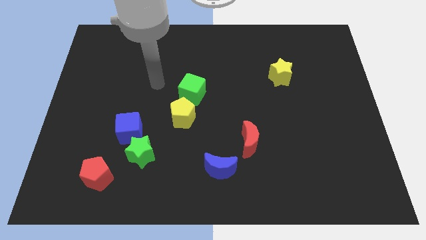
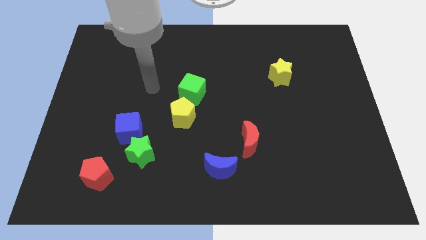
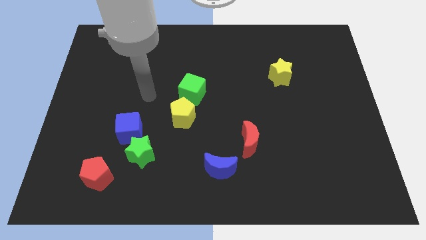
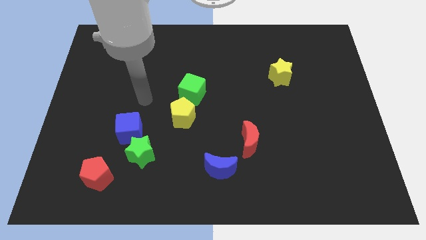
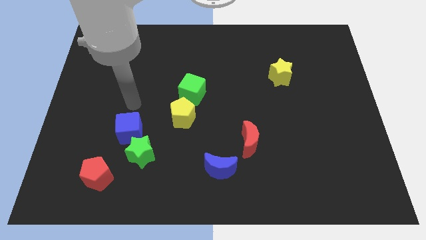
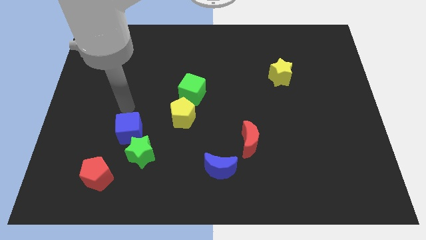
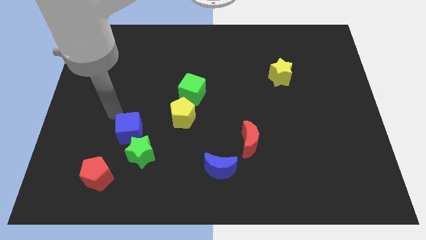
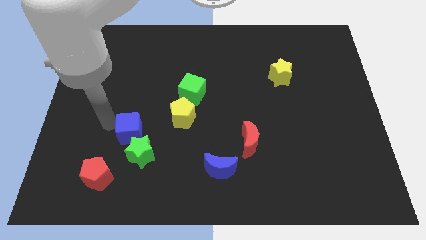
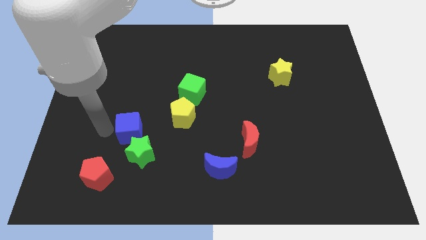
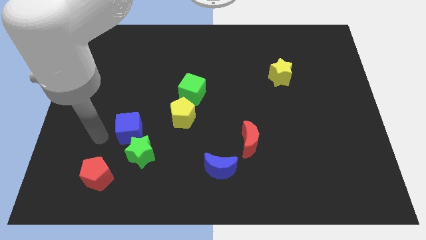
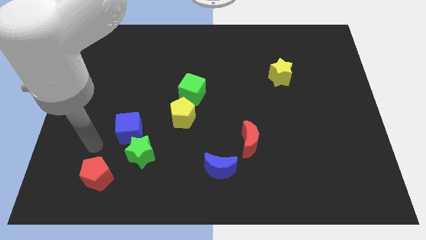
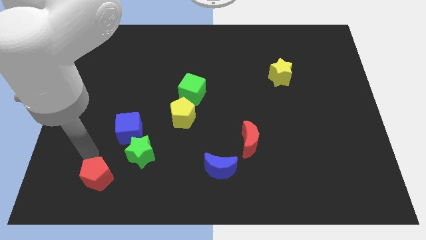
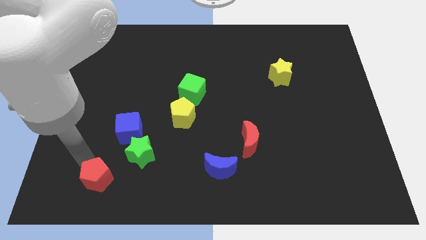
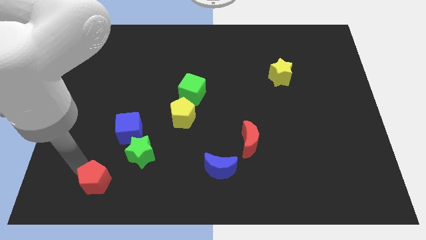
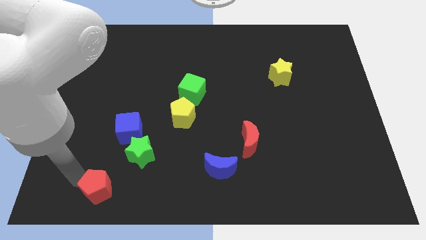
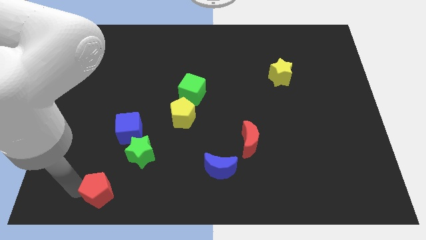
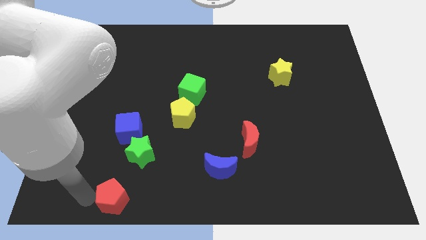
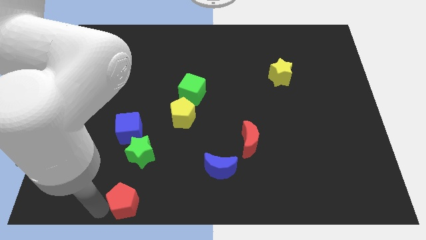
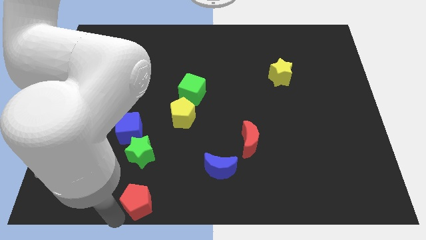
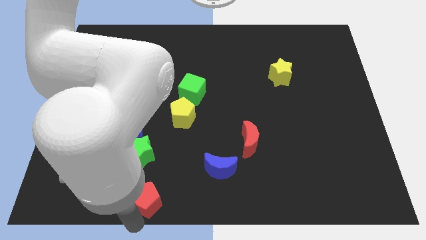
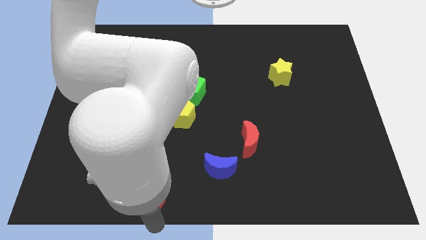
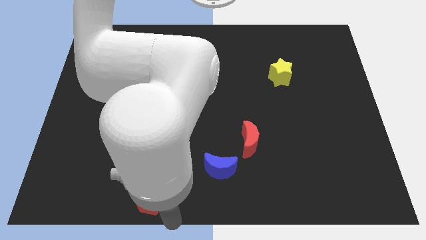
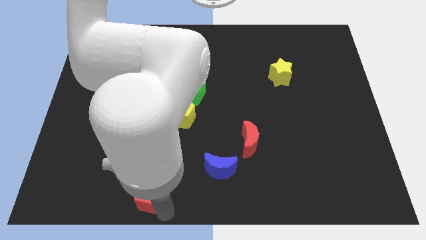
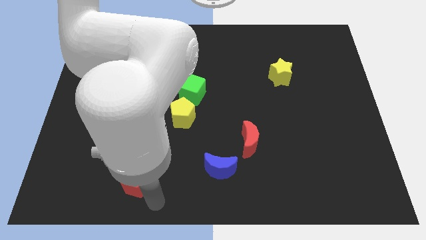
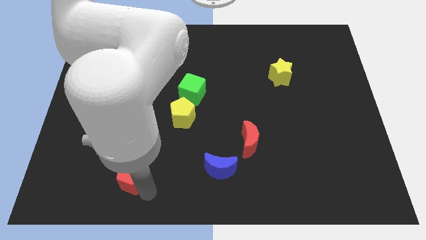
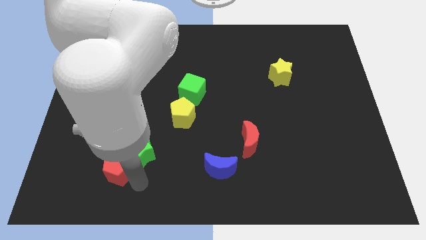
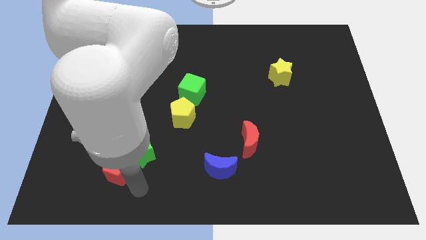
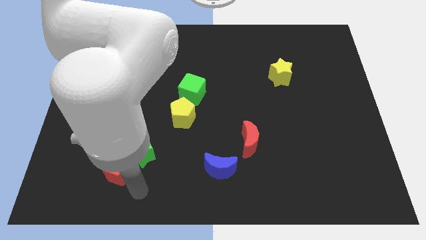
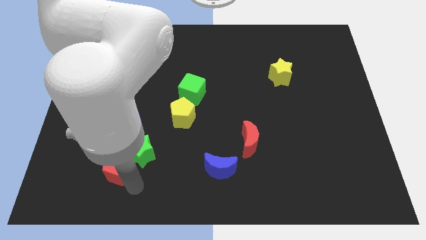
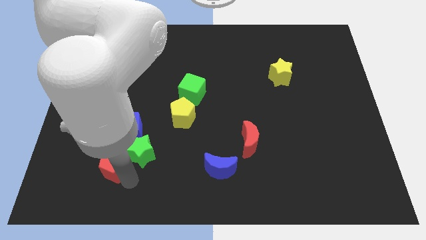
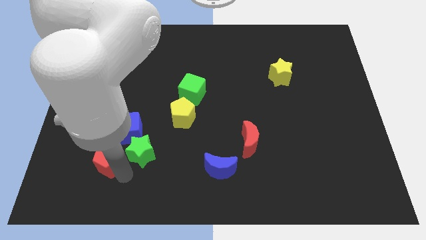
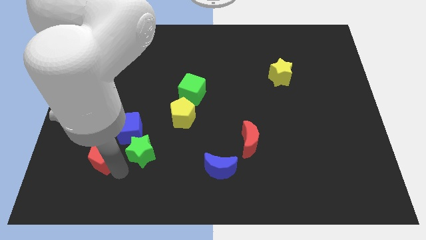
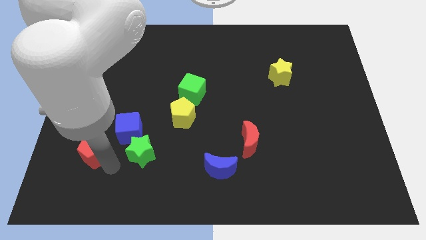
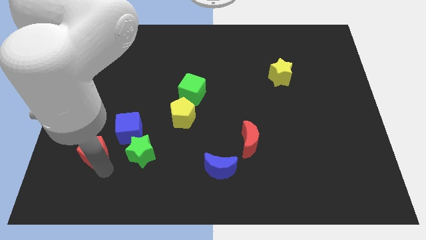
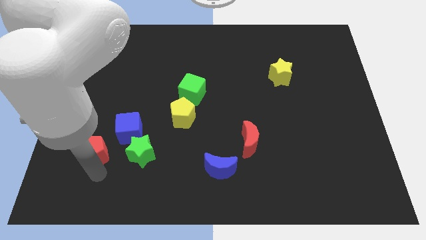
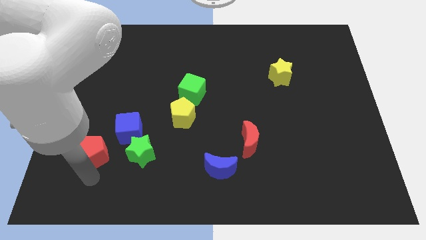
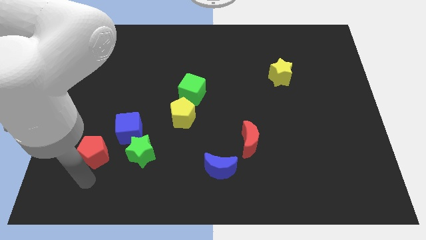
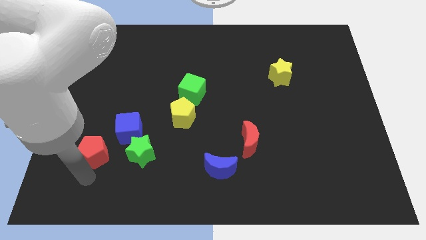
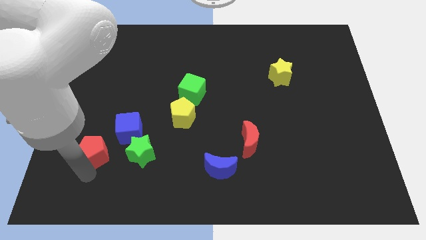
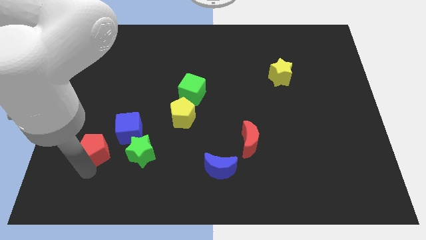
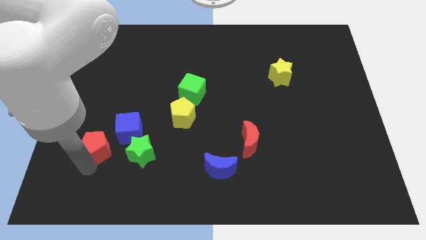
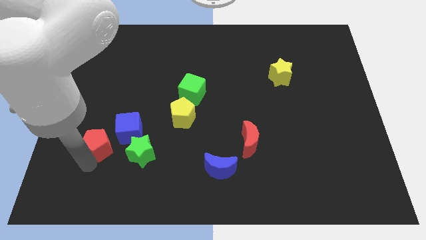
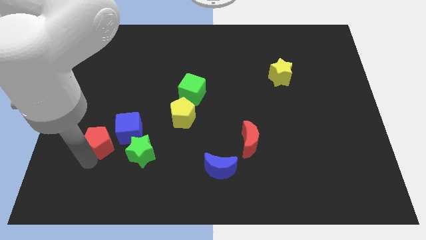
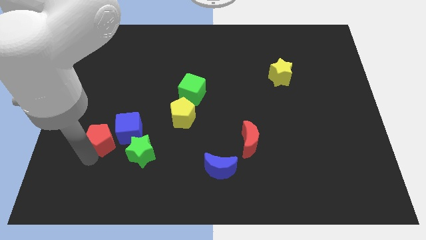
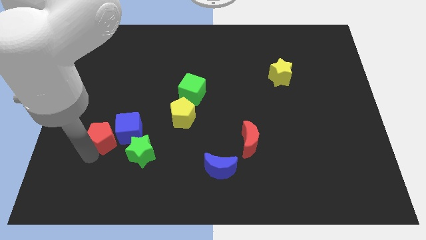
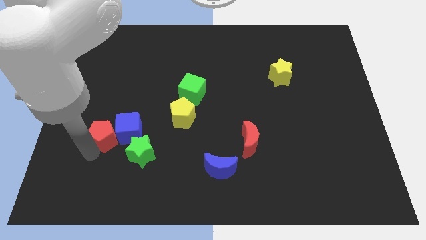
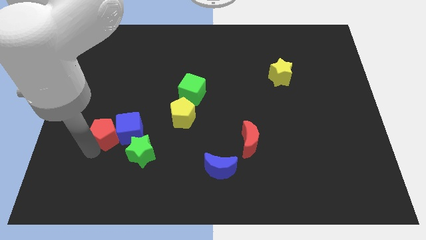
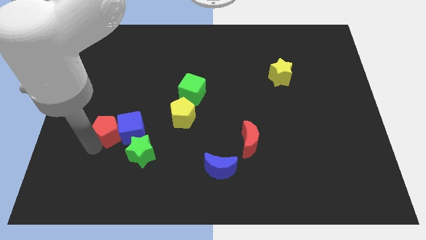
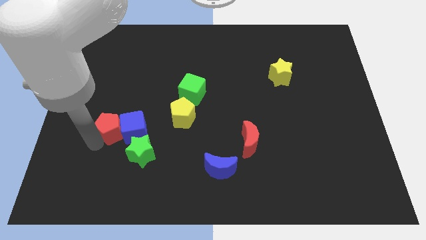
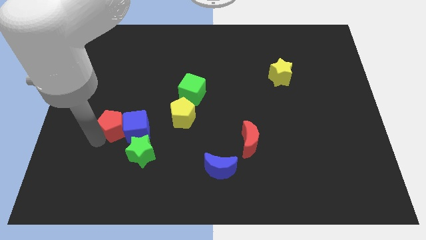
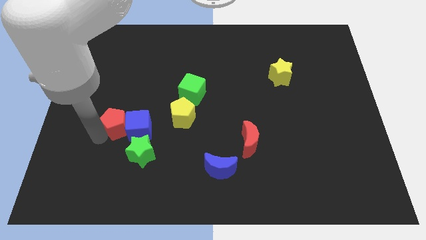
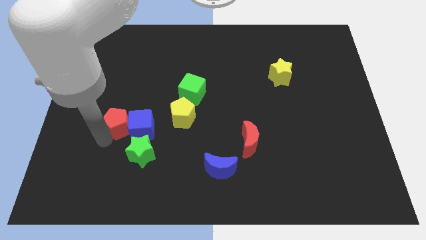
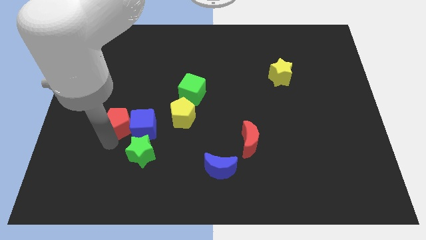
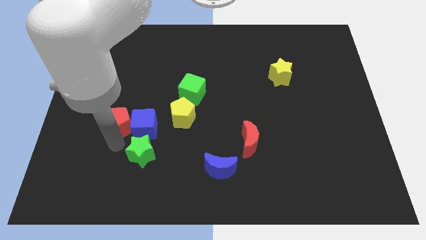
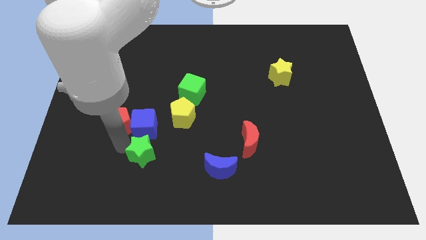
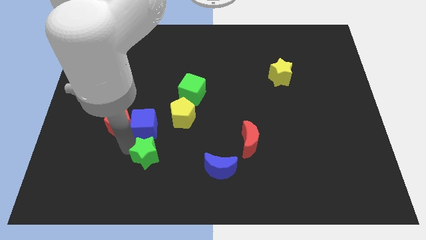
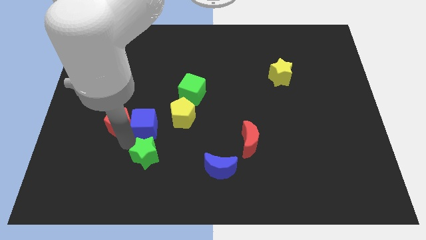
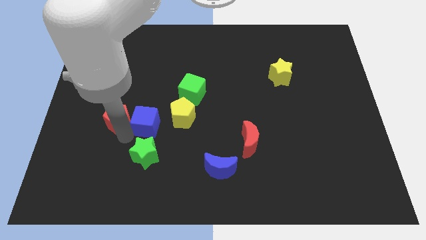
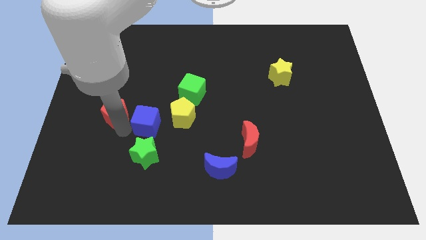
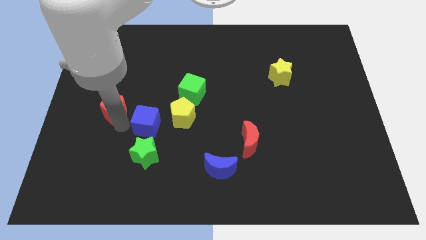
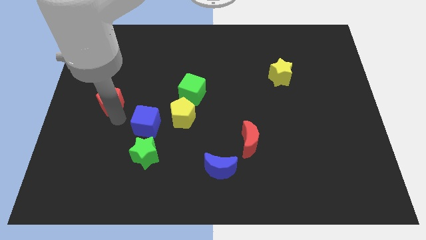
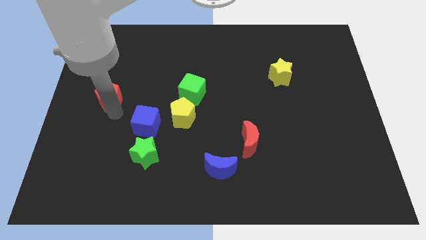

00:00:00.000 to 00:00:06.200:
push the red pentagon up

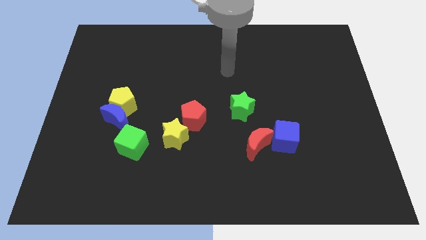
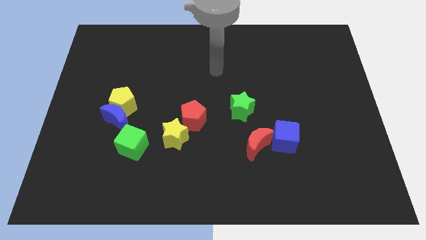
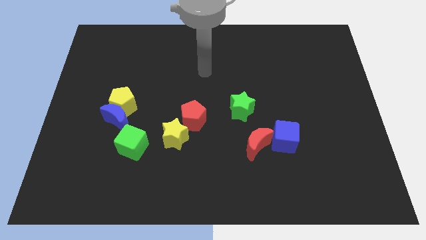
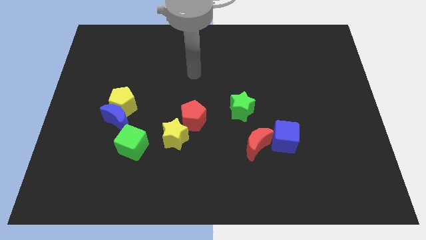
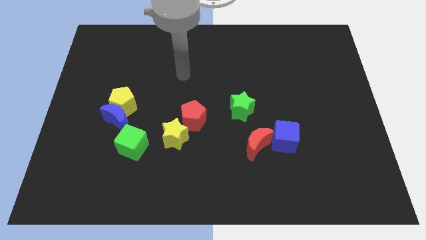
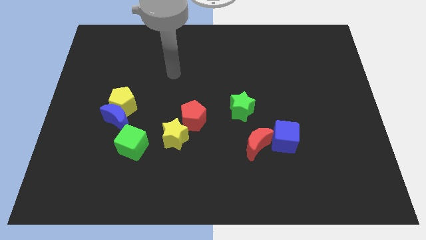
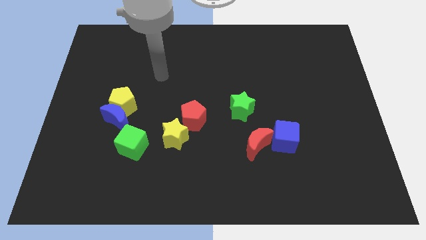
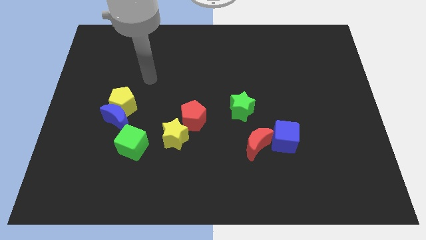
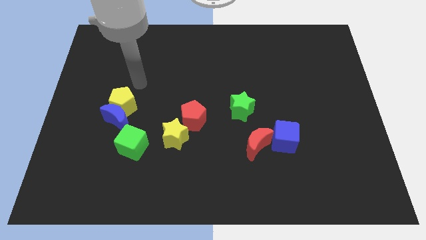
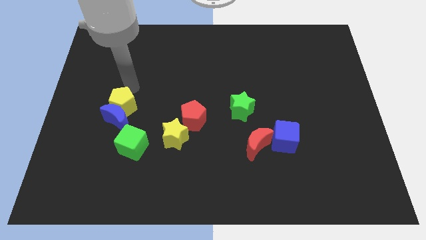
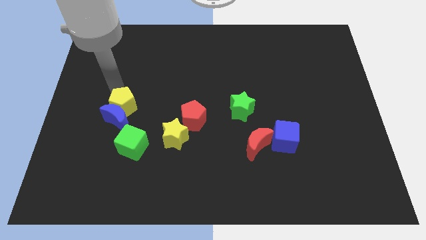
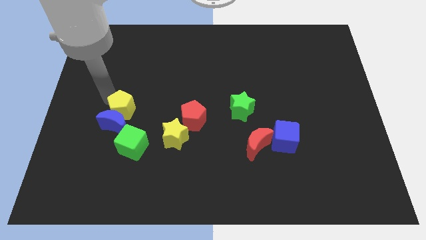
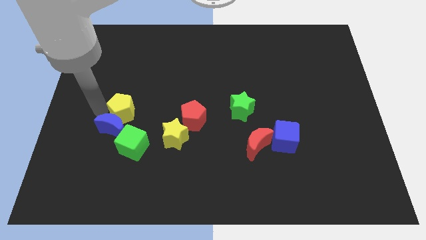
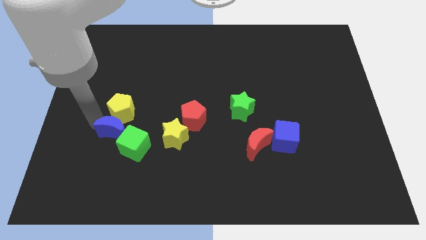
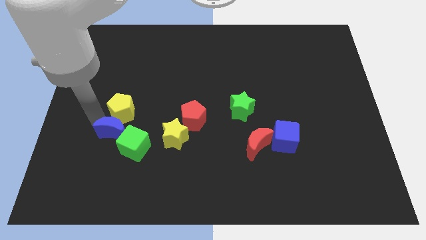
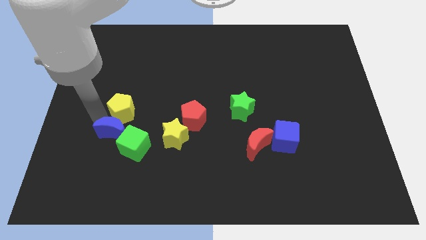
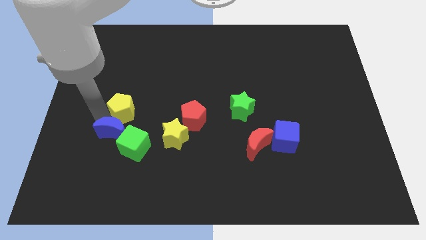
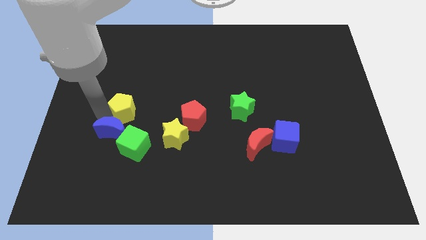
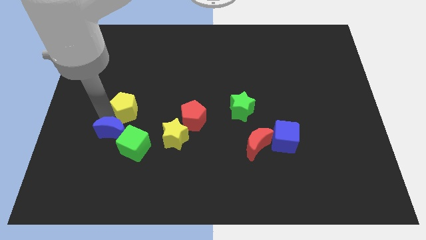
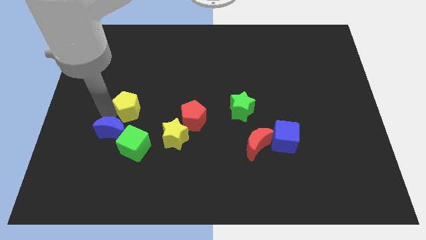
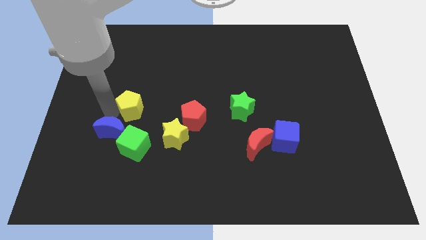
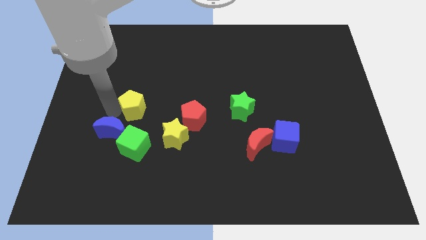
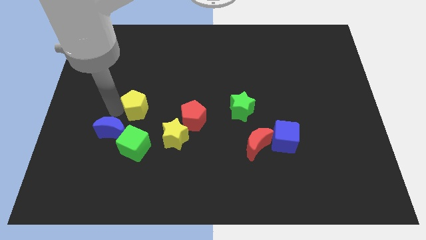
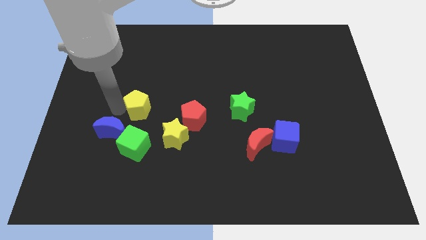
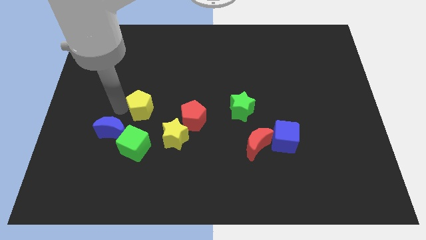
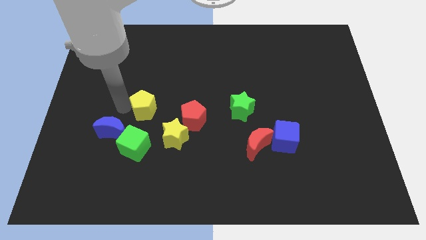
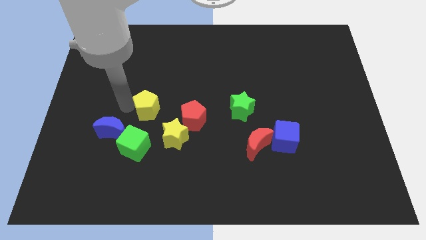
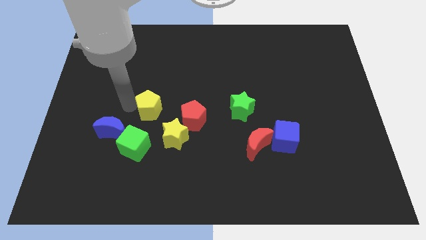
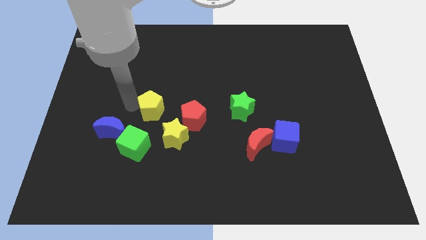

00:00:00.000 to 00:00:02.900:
push the yellow pentagon to the right a little bit
